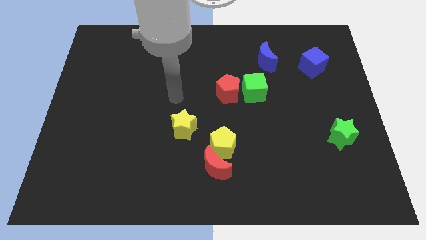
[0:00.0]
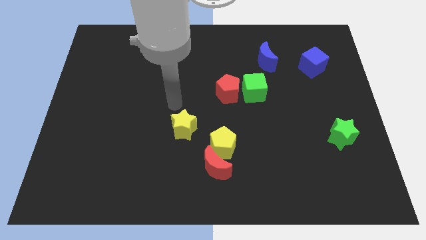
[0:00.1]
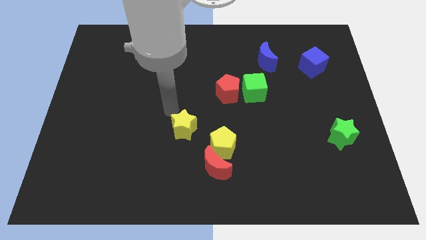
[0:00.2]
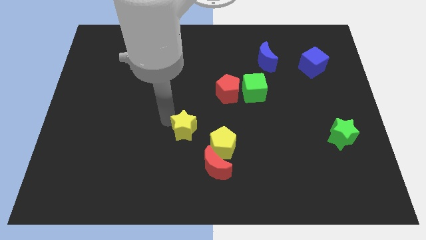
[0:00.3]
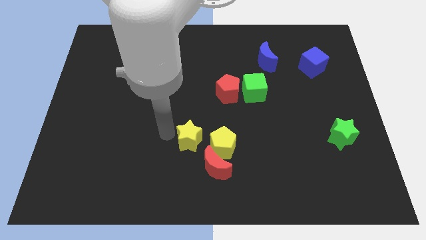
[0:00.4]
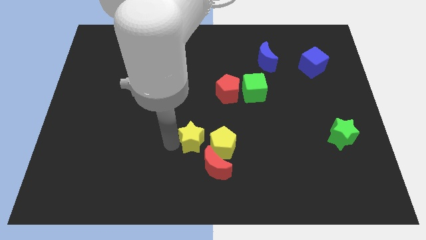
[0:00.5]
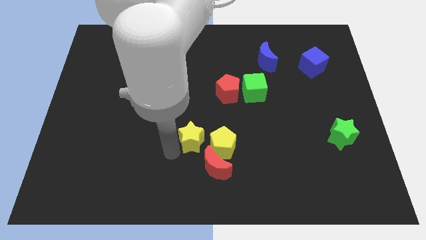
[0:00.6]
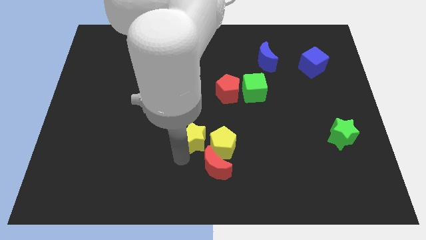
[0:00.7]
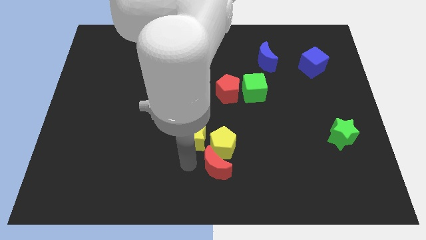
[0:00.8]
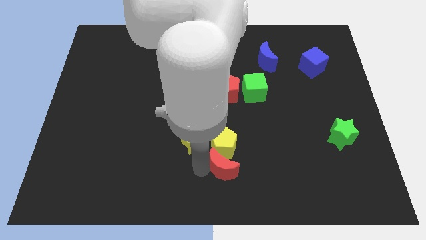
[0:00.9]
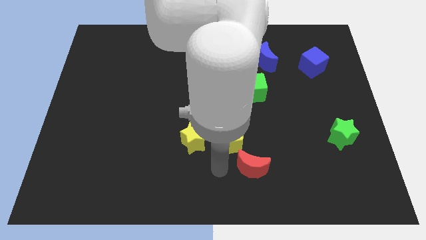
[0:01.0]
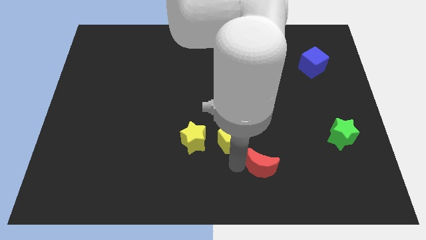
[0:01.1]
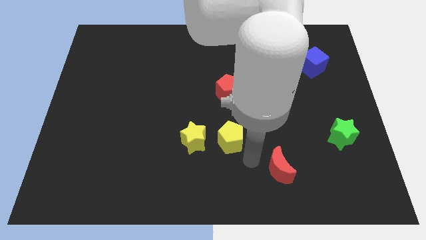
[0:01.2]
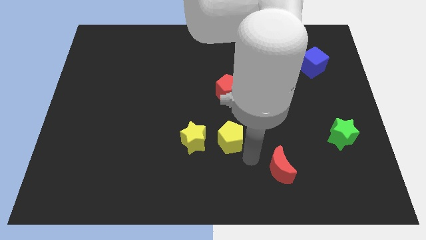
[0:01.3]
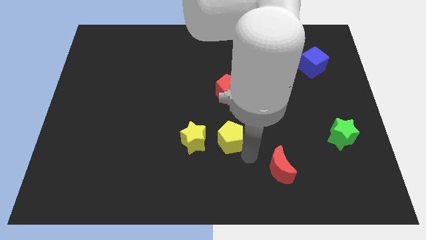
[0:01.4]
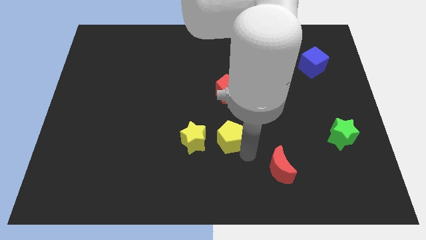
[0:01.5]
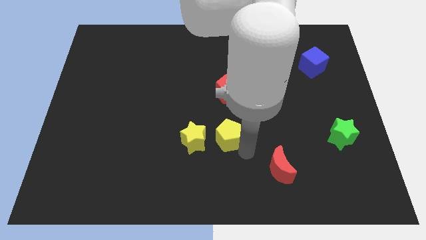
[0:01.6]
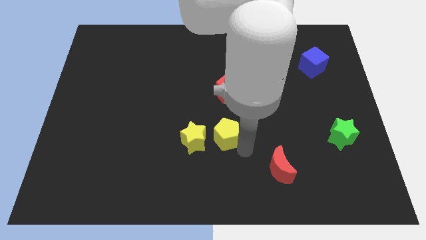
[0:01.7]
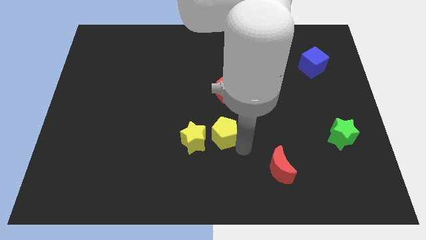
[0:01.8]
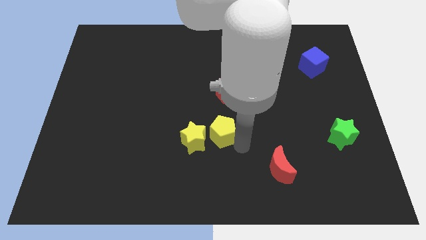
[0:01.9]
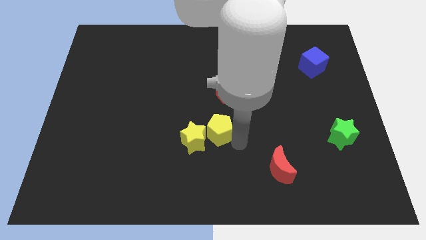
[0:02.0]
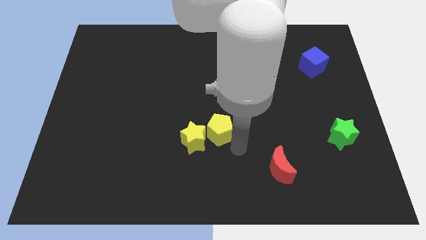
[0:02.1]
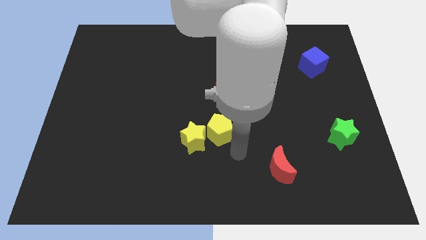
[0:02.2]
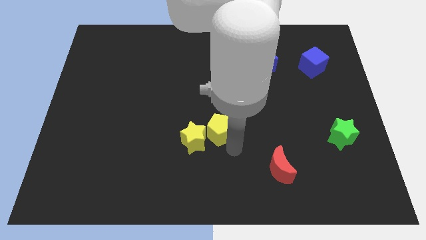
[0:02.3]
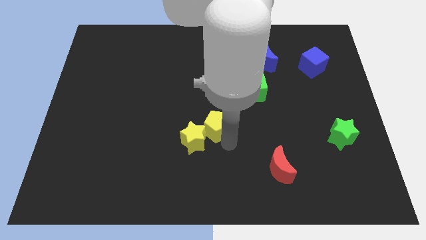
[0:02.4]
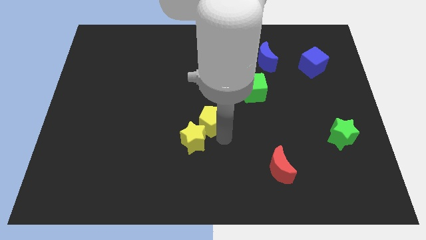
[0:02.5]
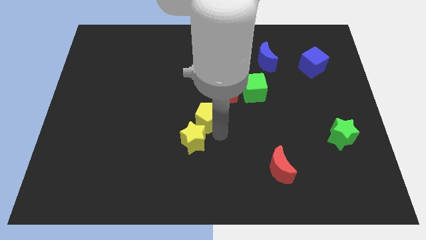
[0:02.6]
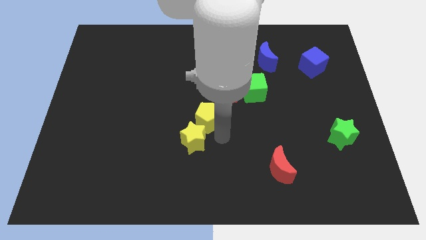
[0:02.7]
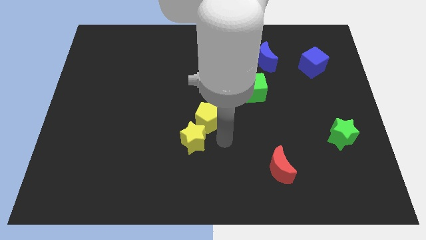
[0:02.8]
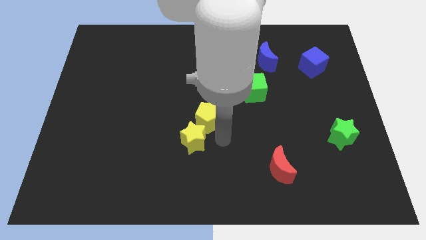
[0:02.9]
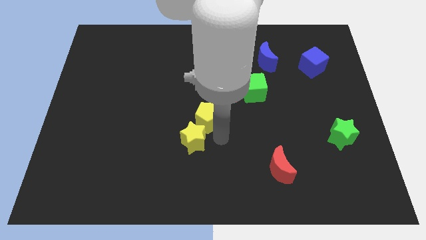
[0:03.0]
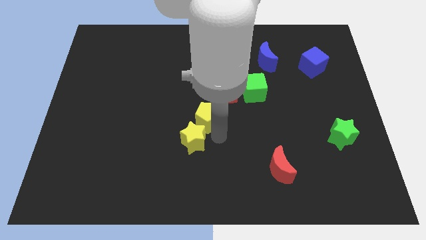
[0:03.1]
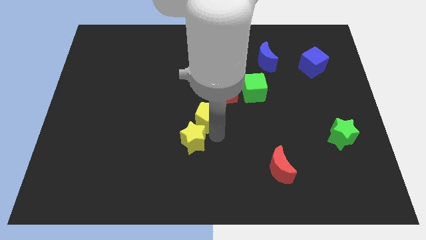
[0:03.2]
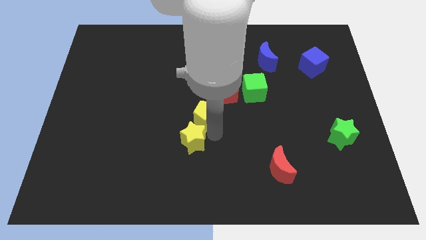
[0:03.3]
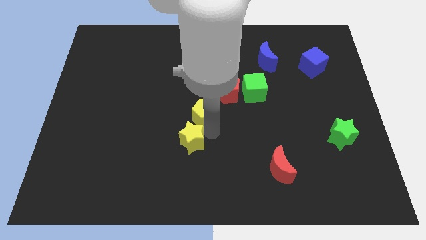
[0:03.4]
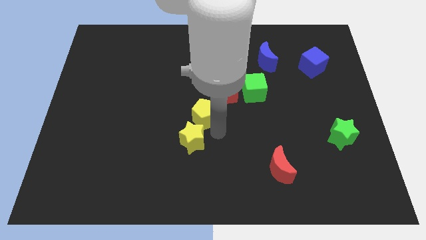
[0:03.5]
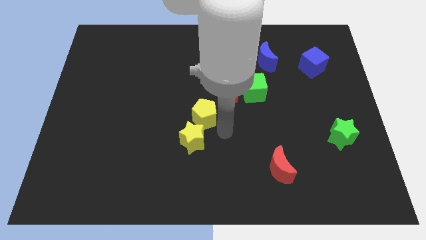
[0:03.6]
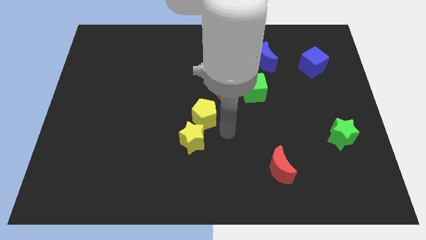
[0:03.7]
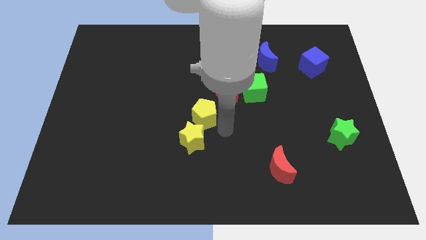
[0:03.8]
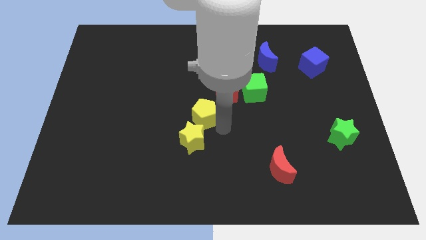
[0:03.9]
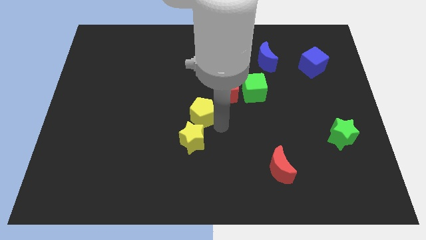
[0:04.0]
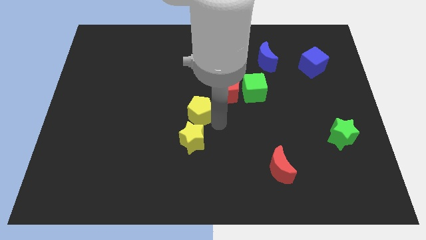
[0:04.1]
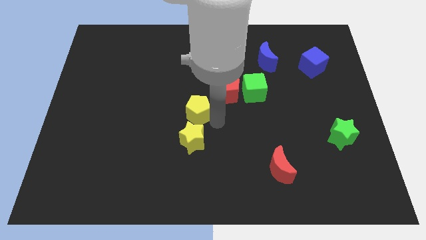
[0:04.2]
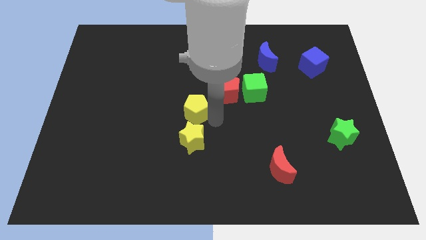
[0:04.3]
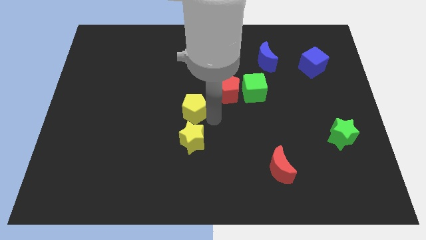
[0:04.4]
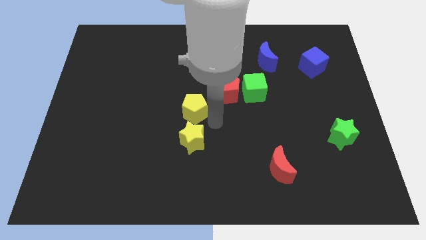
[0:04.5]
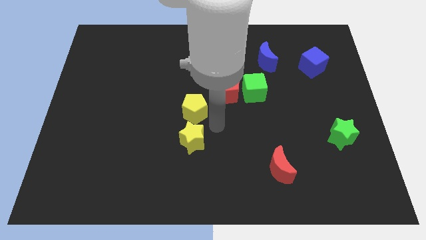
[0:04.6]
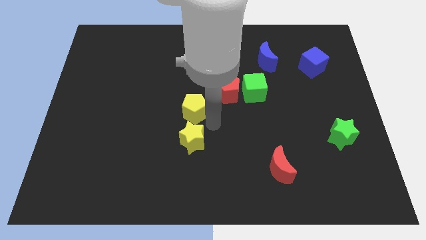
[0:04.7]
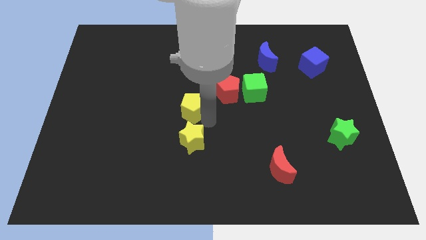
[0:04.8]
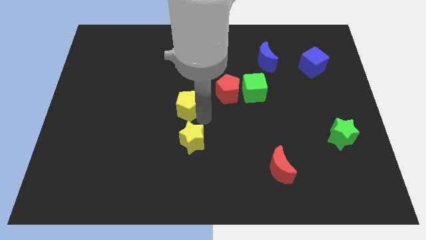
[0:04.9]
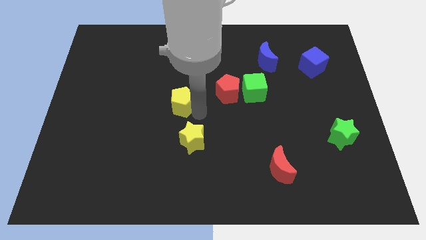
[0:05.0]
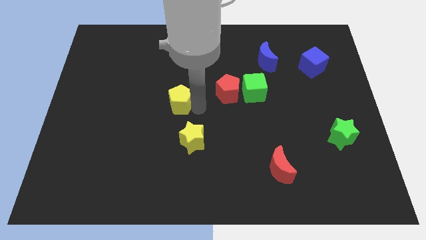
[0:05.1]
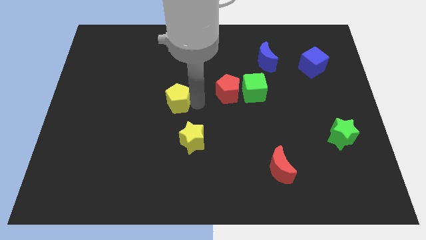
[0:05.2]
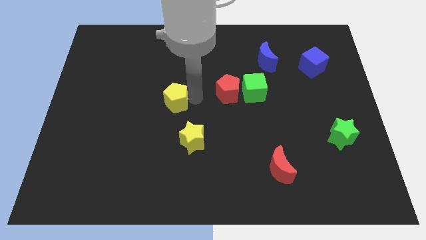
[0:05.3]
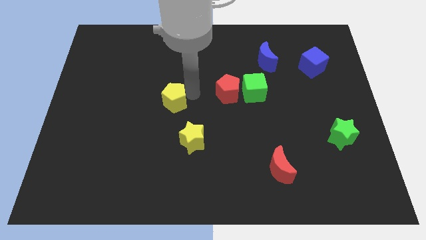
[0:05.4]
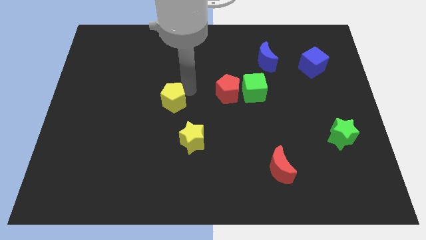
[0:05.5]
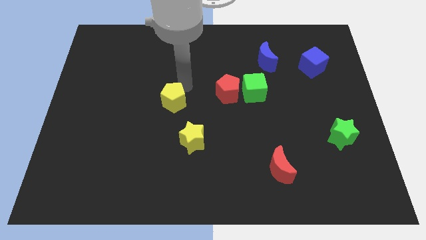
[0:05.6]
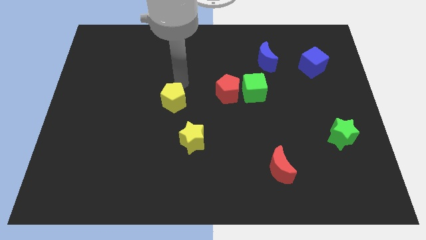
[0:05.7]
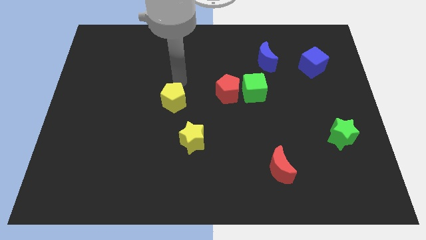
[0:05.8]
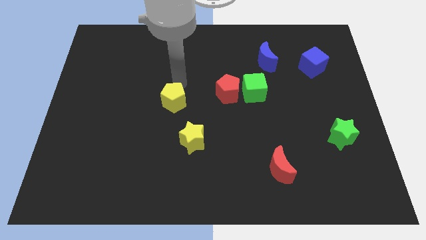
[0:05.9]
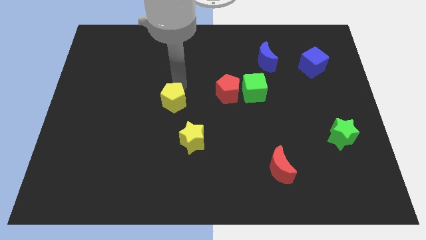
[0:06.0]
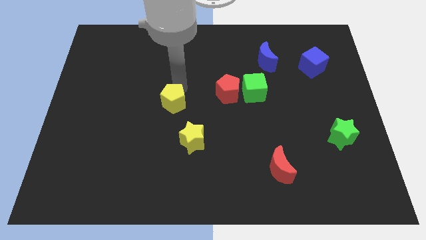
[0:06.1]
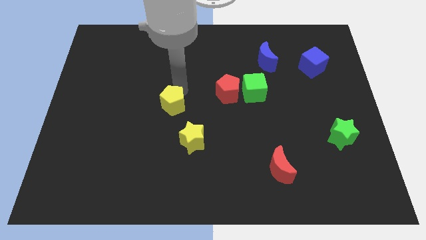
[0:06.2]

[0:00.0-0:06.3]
slide the yellow pentagon diagonally up and to the left of the yellow star

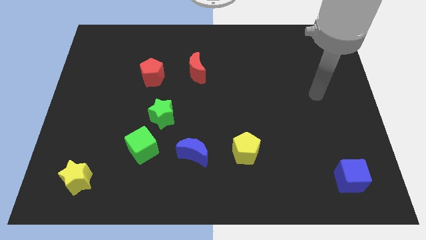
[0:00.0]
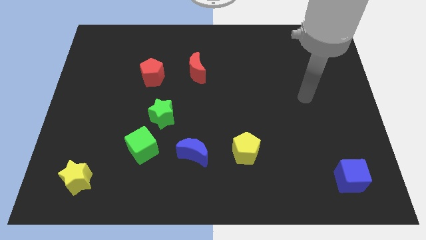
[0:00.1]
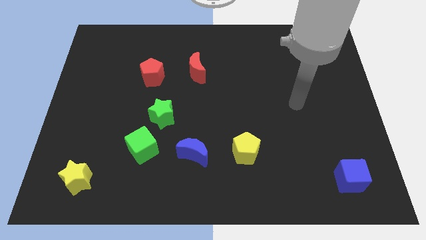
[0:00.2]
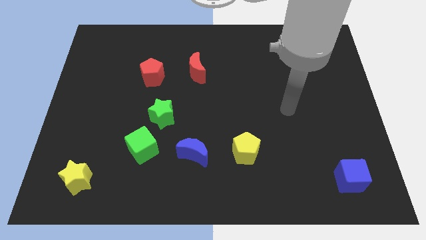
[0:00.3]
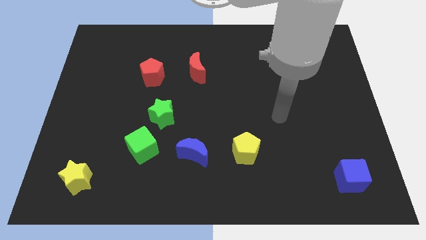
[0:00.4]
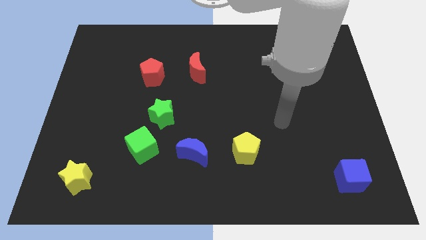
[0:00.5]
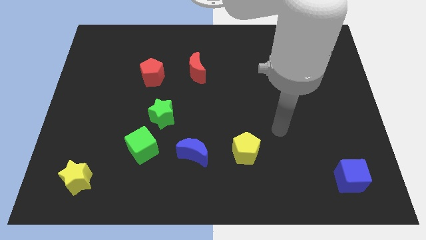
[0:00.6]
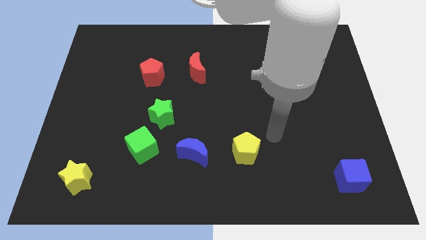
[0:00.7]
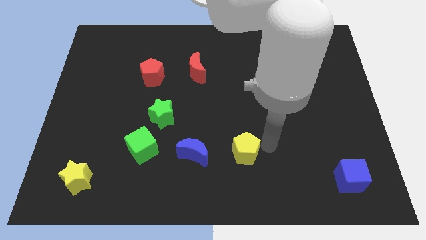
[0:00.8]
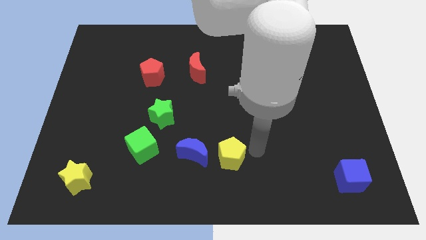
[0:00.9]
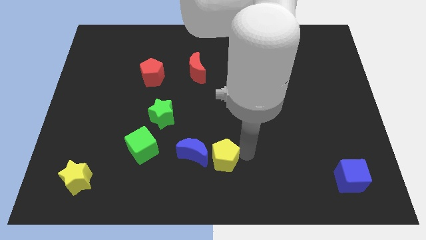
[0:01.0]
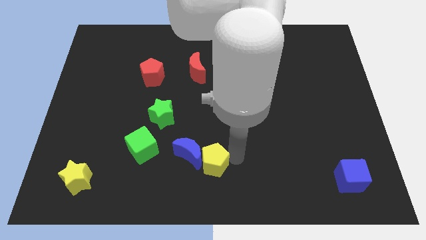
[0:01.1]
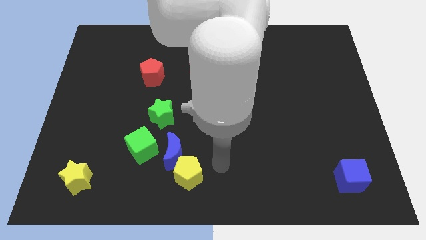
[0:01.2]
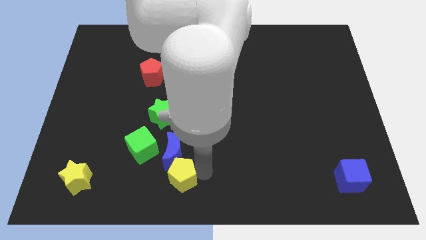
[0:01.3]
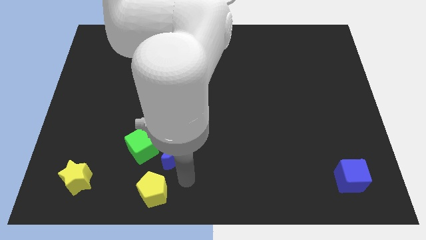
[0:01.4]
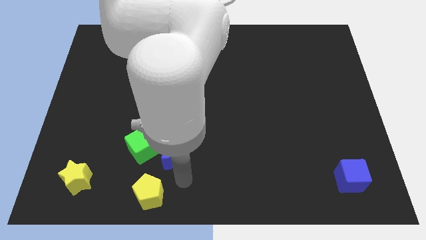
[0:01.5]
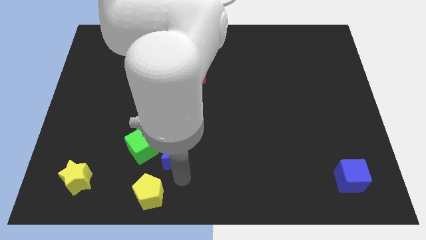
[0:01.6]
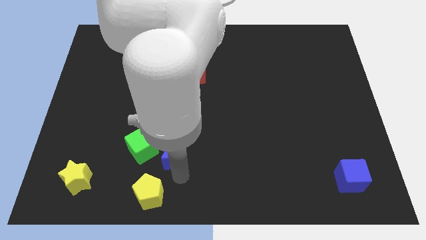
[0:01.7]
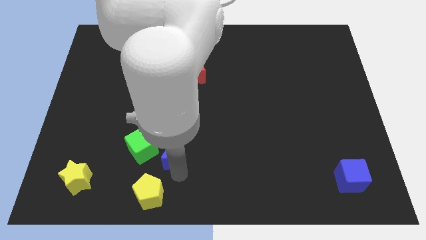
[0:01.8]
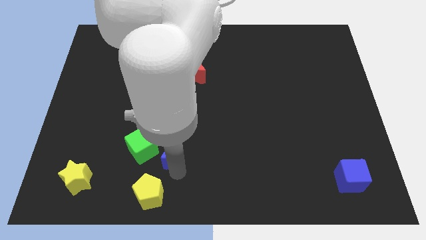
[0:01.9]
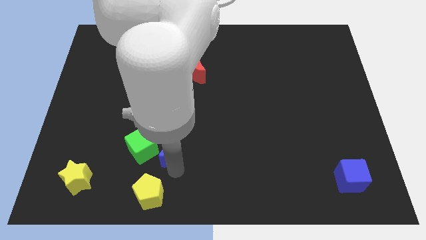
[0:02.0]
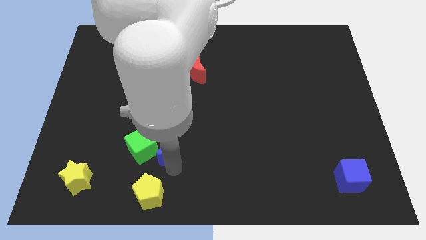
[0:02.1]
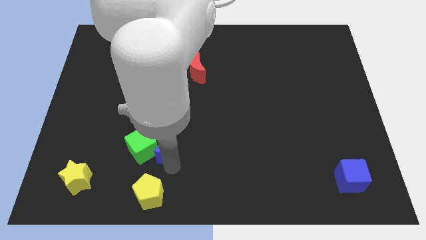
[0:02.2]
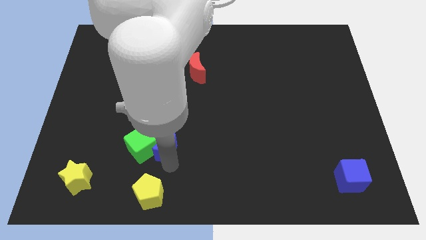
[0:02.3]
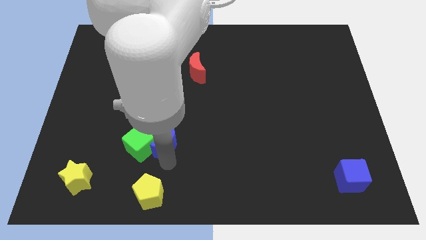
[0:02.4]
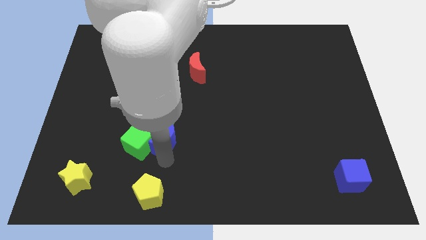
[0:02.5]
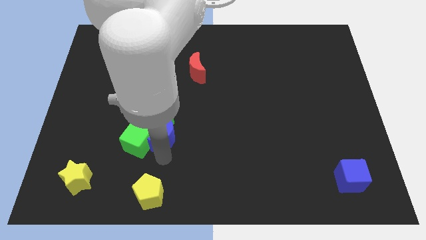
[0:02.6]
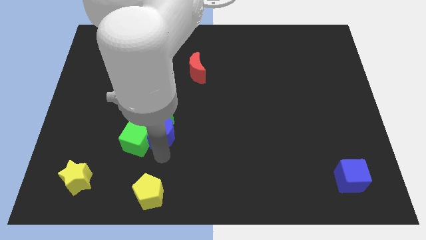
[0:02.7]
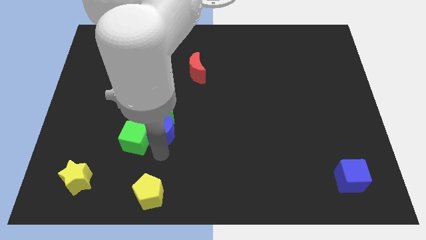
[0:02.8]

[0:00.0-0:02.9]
slide the blue moon diagonally down and to the left of the green star
